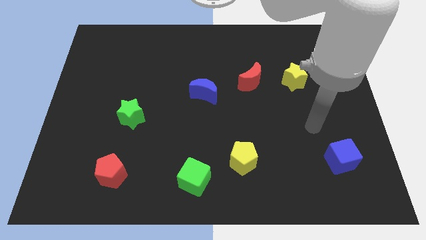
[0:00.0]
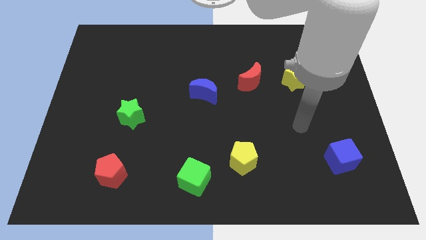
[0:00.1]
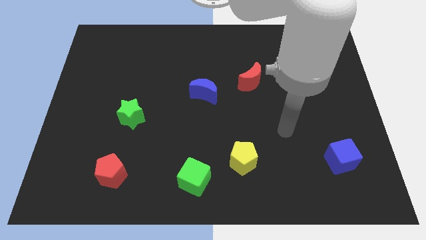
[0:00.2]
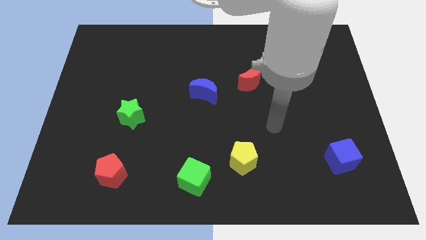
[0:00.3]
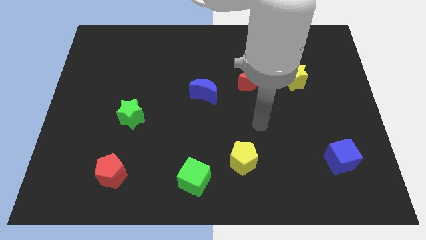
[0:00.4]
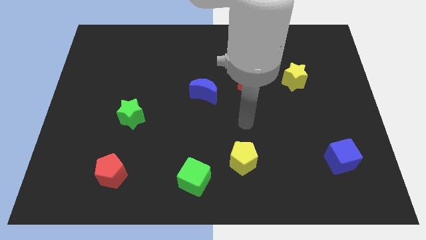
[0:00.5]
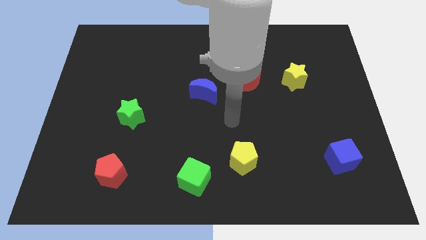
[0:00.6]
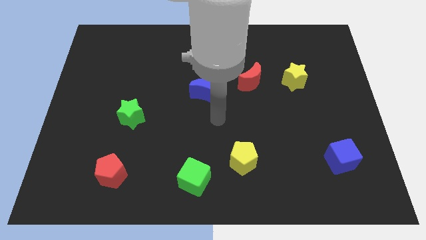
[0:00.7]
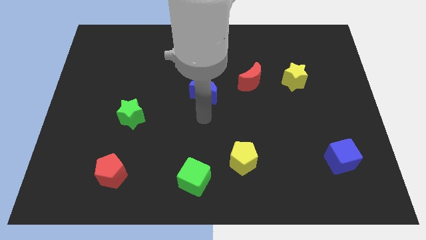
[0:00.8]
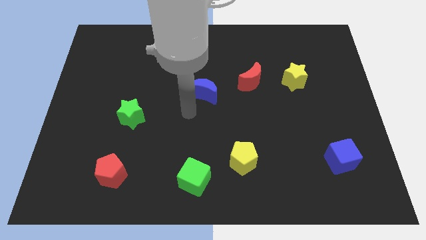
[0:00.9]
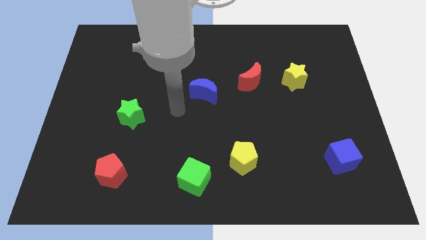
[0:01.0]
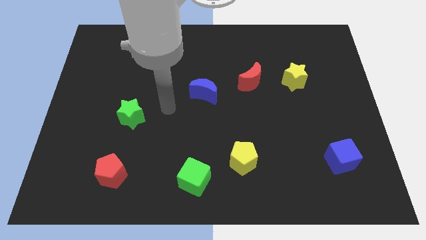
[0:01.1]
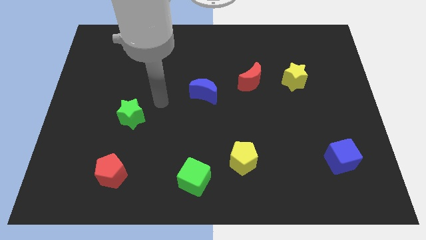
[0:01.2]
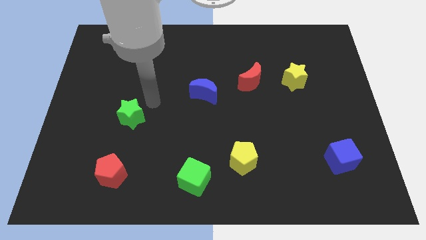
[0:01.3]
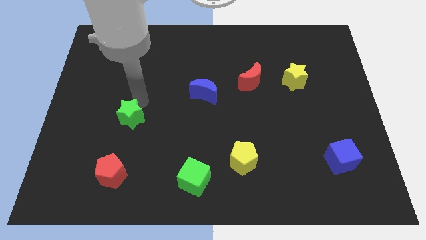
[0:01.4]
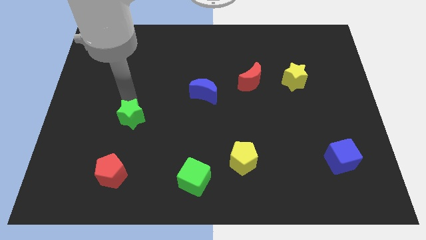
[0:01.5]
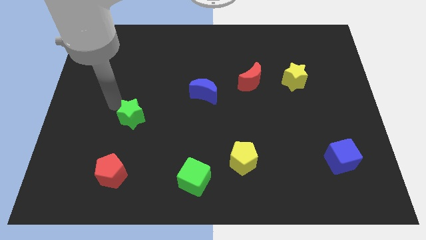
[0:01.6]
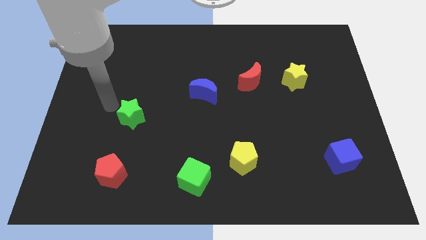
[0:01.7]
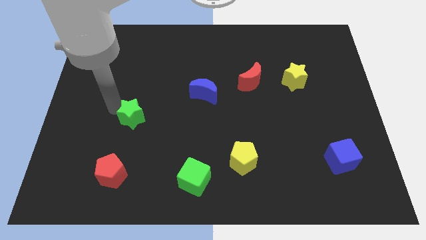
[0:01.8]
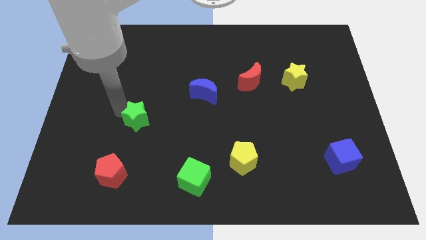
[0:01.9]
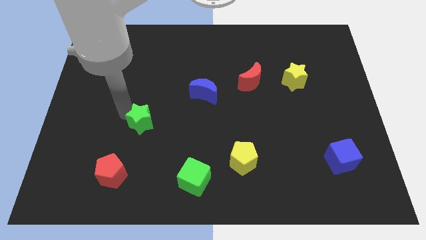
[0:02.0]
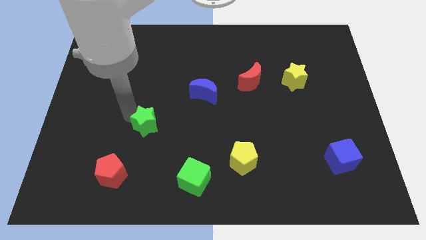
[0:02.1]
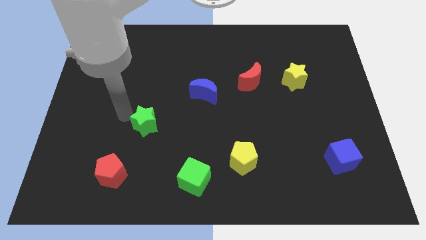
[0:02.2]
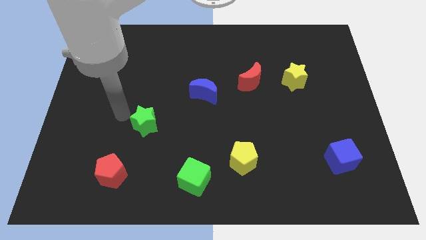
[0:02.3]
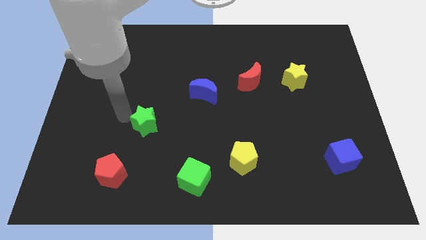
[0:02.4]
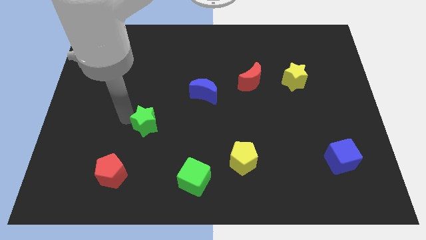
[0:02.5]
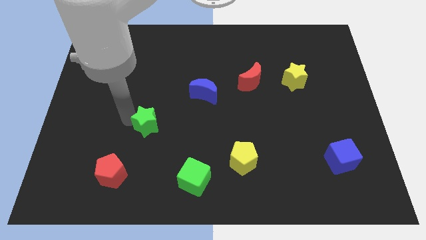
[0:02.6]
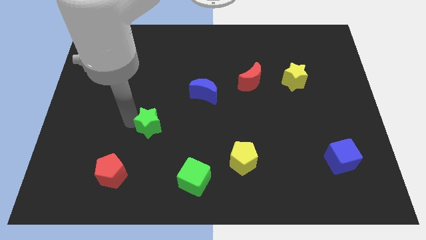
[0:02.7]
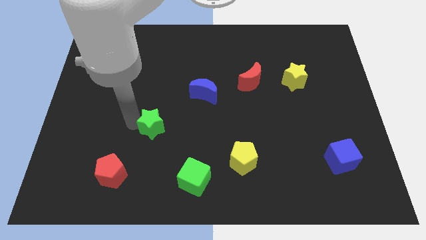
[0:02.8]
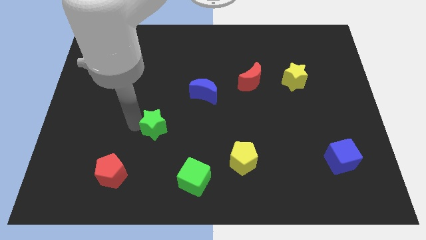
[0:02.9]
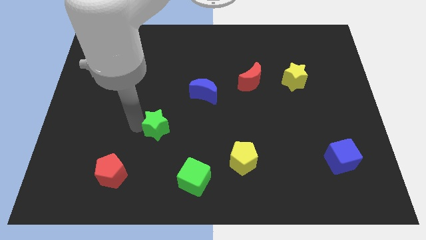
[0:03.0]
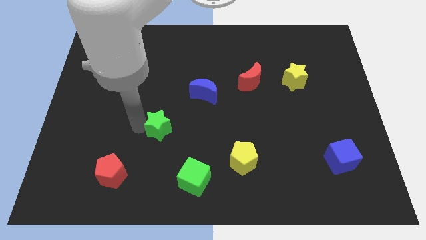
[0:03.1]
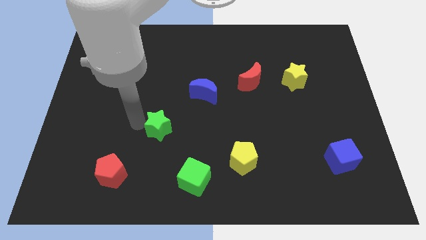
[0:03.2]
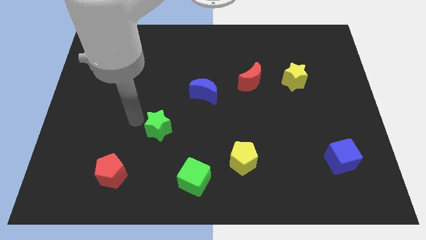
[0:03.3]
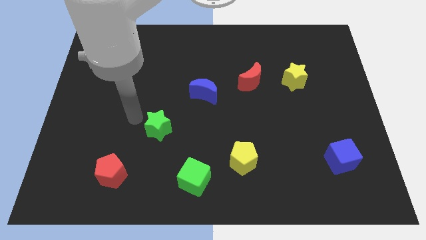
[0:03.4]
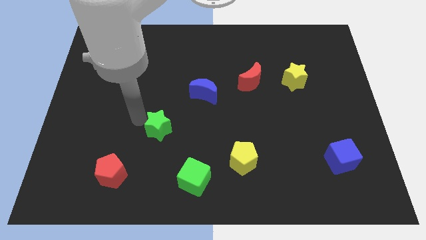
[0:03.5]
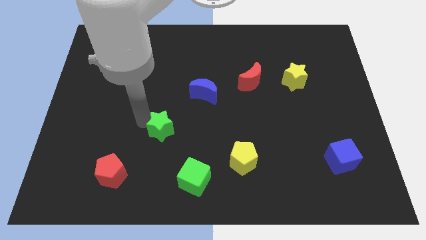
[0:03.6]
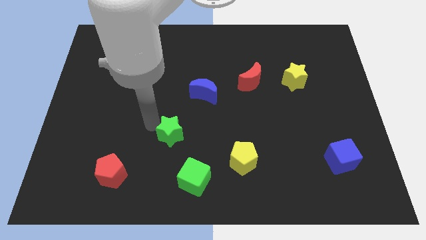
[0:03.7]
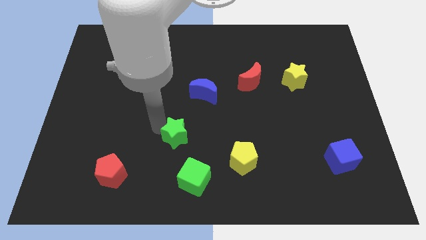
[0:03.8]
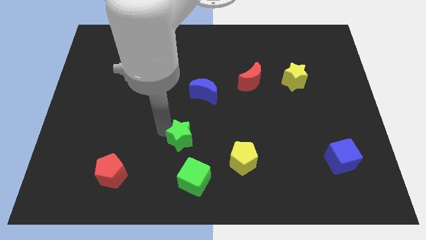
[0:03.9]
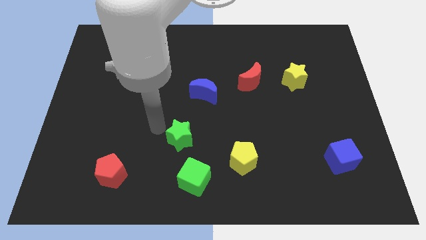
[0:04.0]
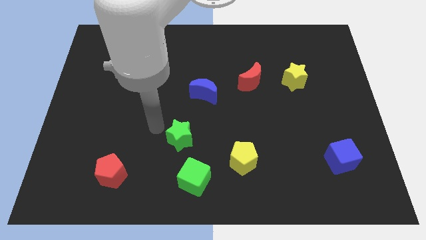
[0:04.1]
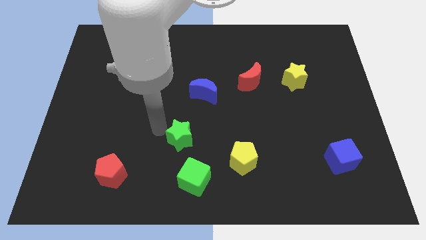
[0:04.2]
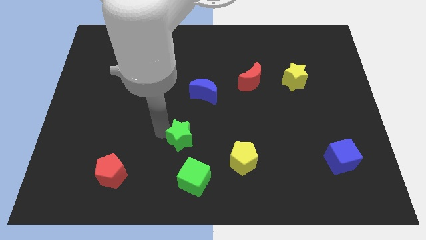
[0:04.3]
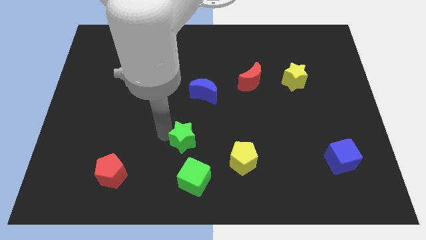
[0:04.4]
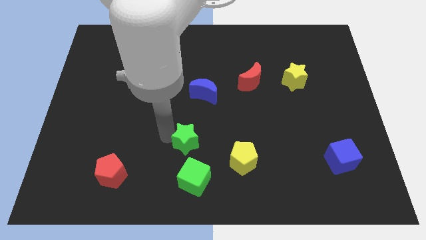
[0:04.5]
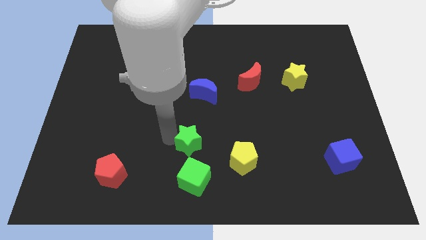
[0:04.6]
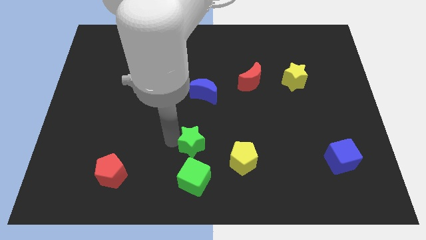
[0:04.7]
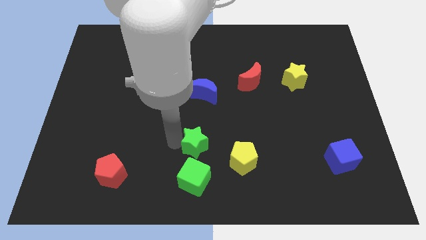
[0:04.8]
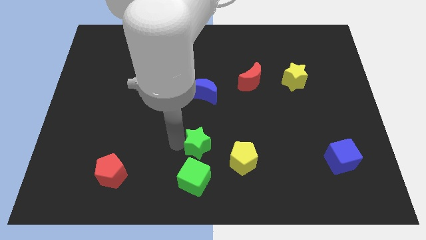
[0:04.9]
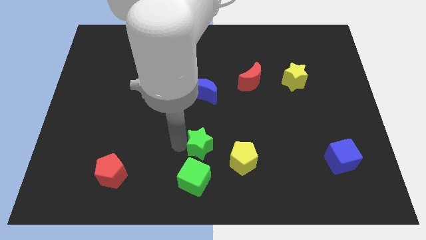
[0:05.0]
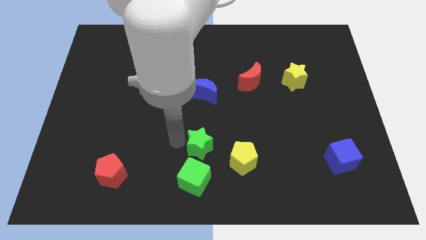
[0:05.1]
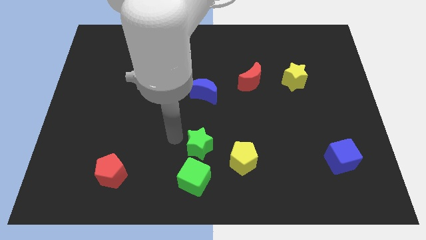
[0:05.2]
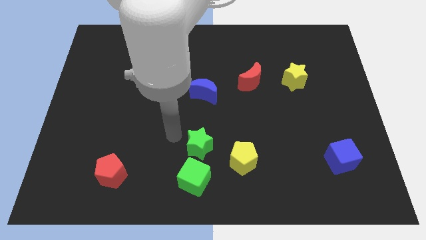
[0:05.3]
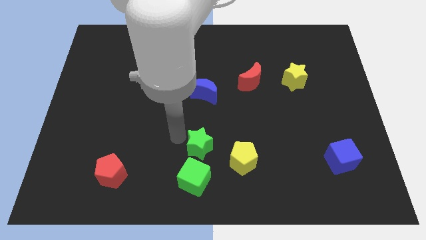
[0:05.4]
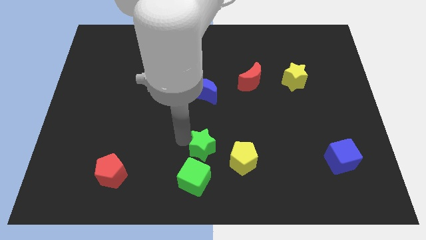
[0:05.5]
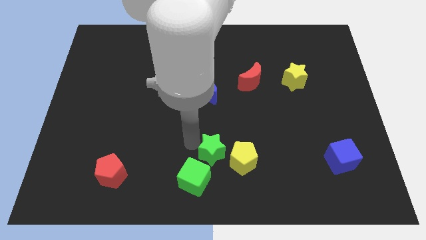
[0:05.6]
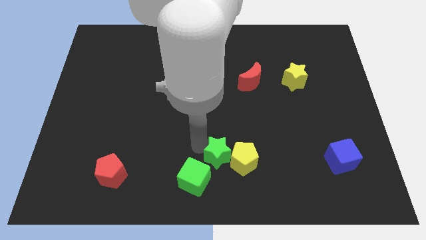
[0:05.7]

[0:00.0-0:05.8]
push the green star to the yellow pentagon

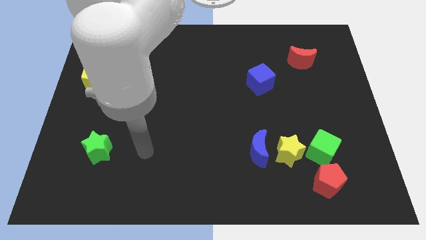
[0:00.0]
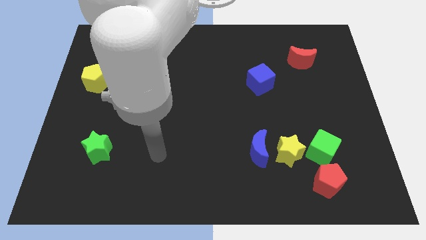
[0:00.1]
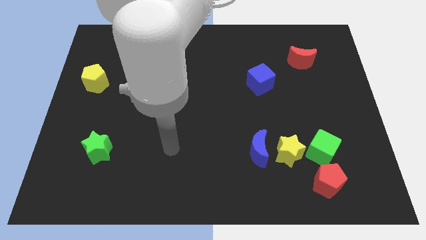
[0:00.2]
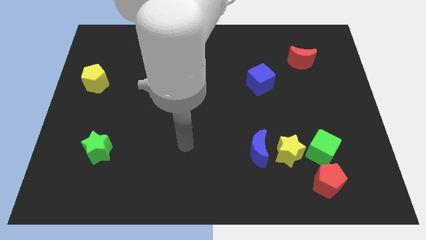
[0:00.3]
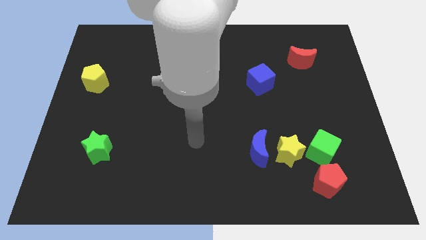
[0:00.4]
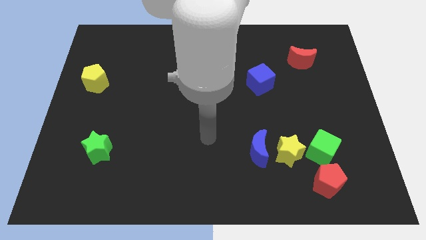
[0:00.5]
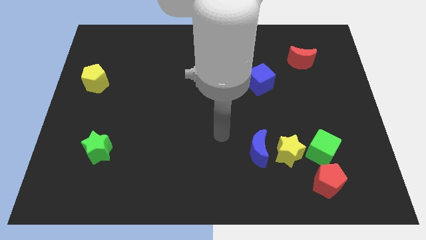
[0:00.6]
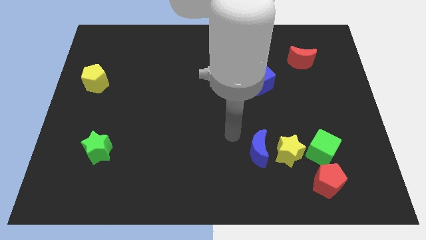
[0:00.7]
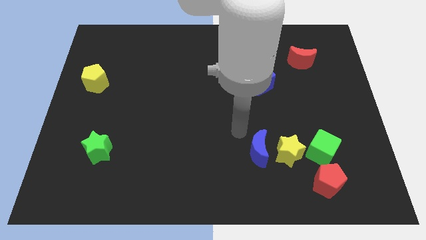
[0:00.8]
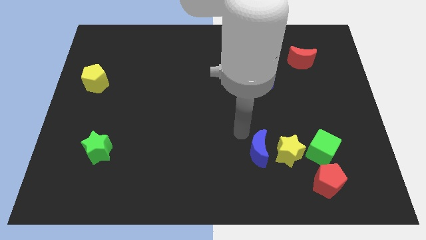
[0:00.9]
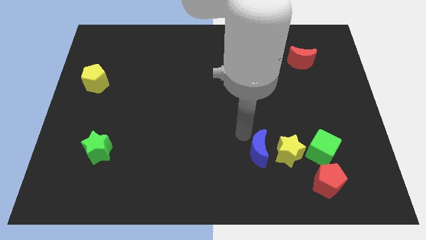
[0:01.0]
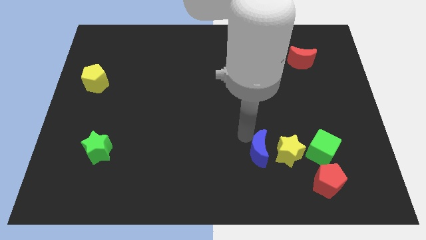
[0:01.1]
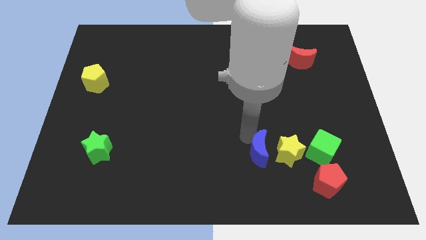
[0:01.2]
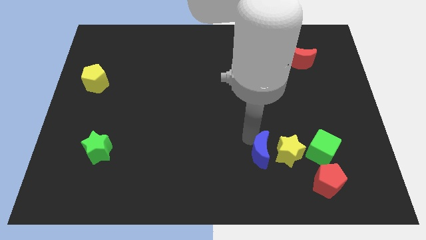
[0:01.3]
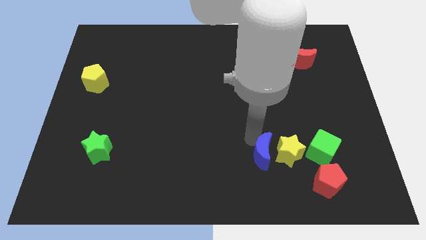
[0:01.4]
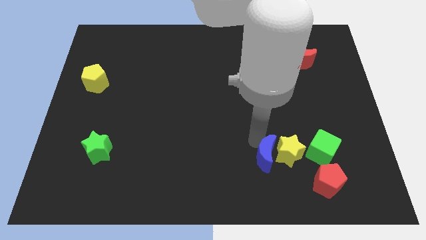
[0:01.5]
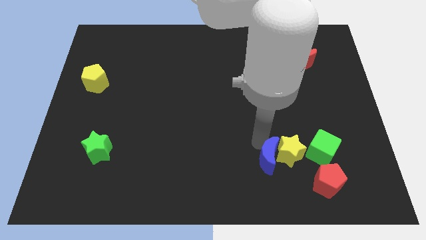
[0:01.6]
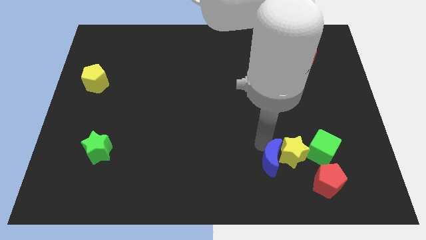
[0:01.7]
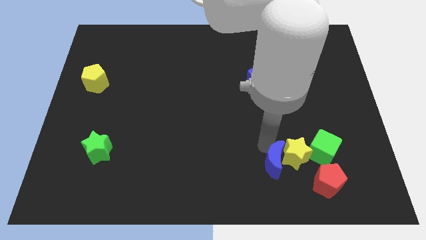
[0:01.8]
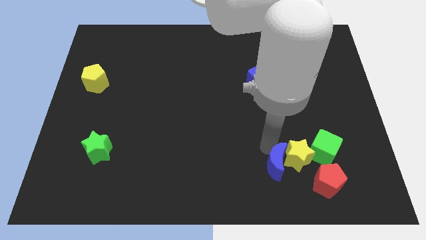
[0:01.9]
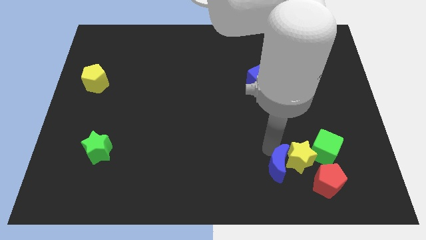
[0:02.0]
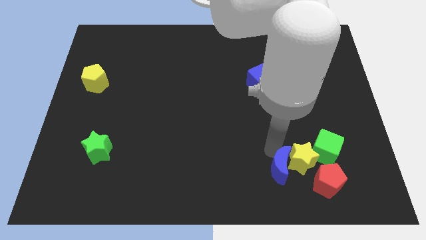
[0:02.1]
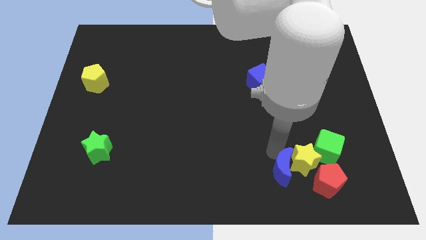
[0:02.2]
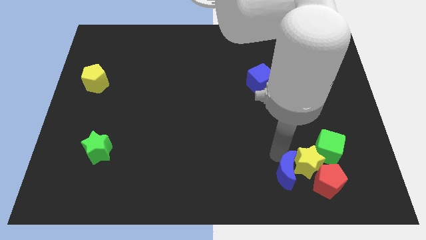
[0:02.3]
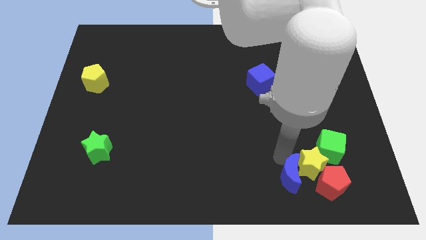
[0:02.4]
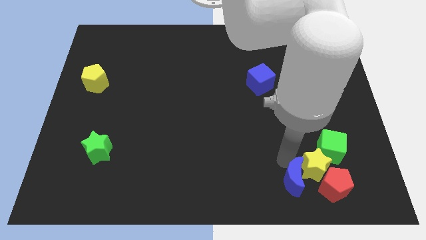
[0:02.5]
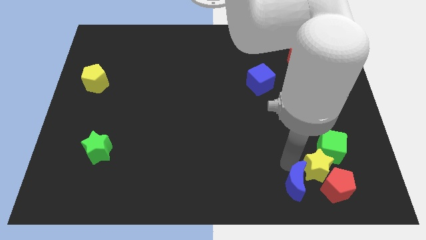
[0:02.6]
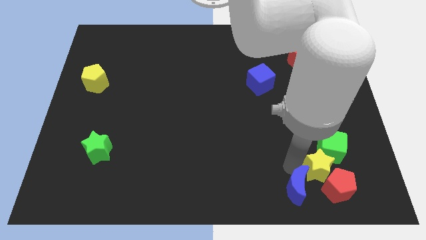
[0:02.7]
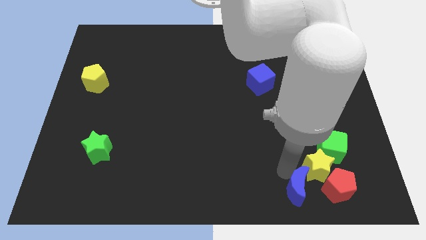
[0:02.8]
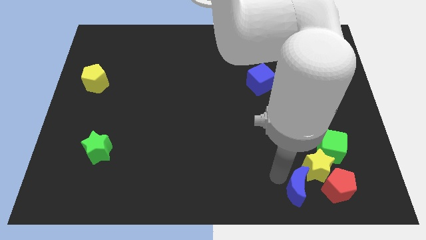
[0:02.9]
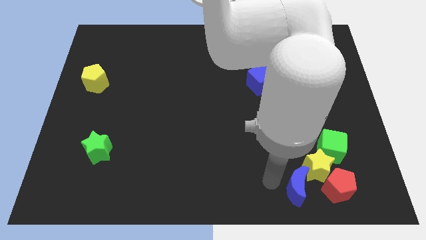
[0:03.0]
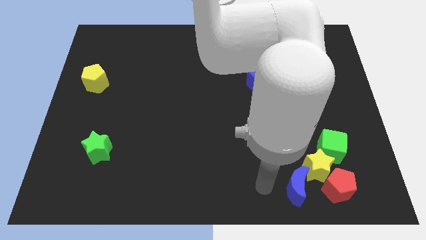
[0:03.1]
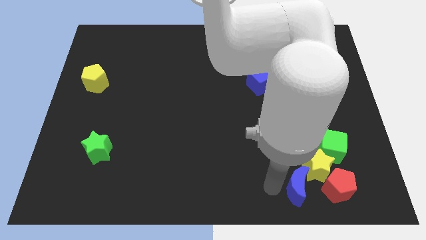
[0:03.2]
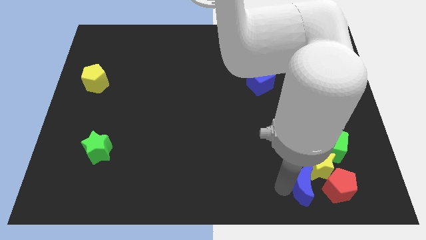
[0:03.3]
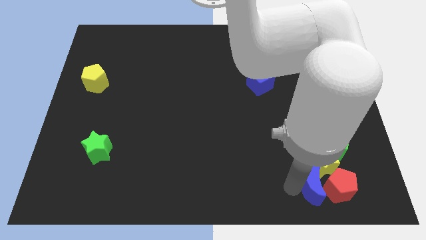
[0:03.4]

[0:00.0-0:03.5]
put the blue moon towards the red pentagon
